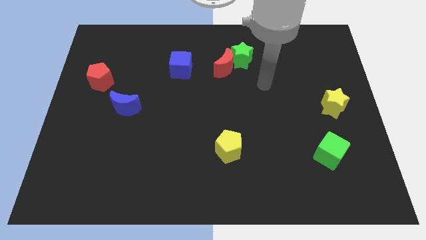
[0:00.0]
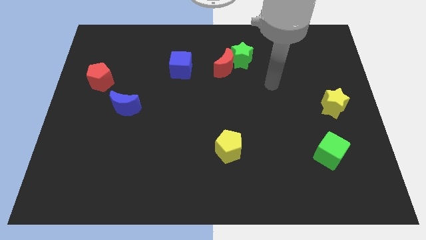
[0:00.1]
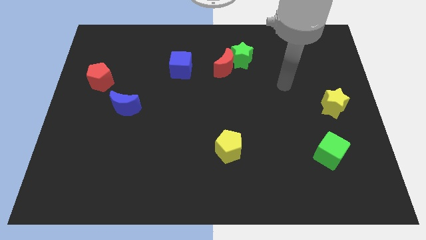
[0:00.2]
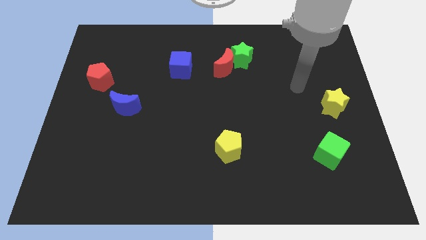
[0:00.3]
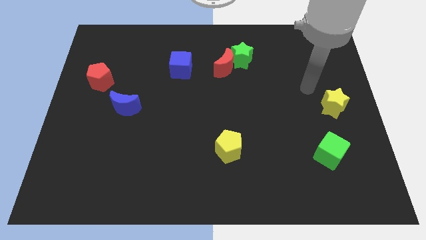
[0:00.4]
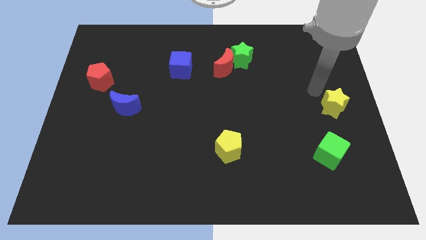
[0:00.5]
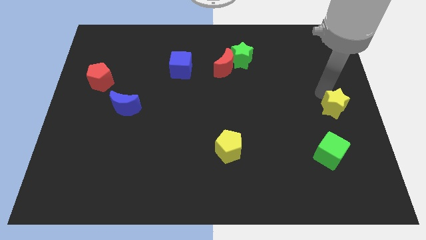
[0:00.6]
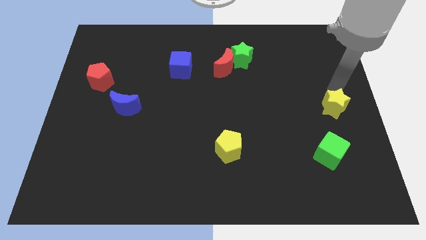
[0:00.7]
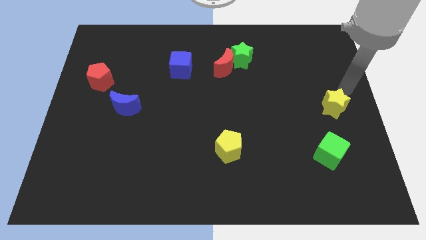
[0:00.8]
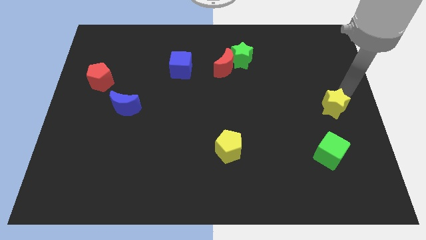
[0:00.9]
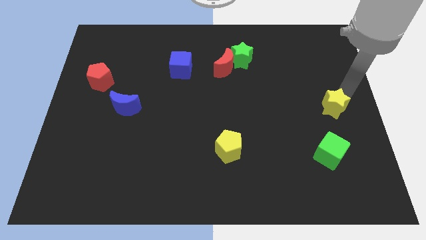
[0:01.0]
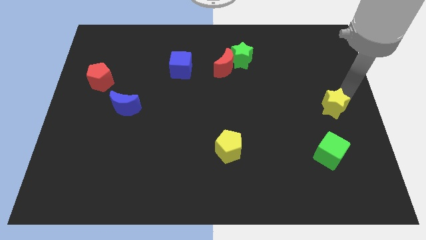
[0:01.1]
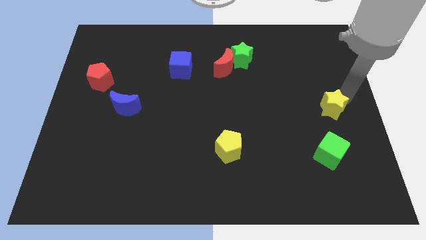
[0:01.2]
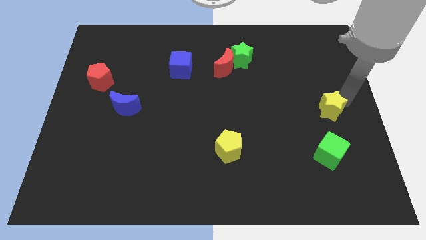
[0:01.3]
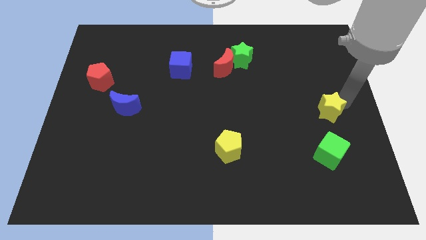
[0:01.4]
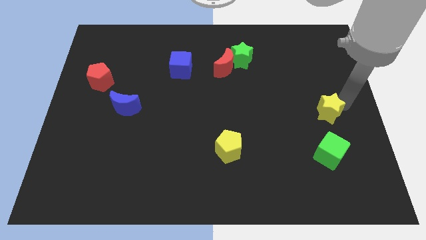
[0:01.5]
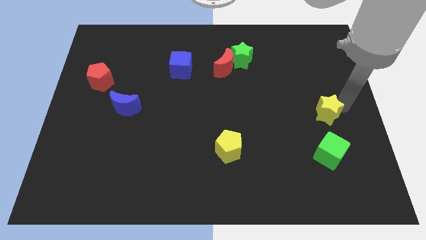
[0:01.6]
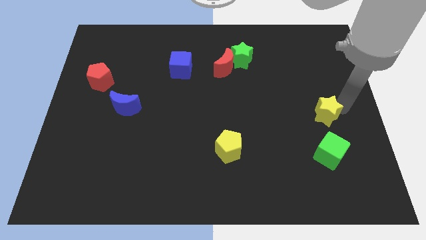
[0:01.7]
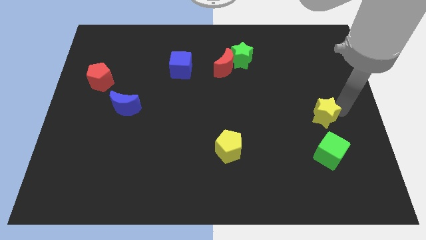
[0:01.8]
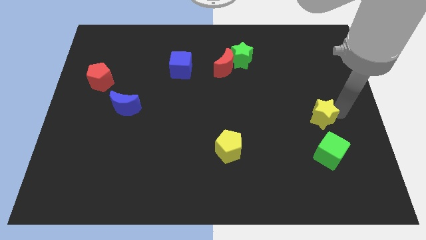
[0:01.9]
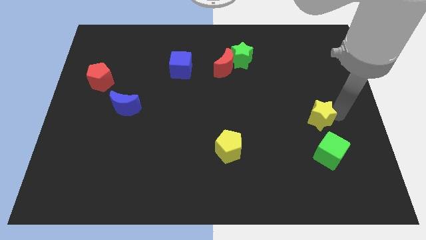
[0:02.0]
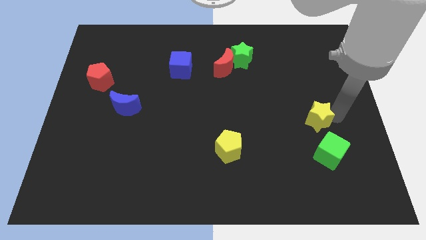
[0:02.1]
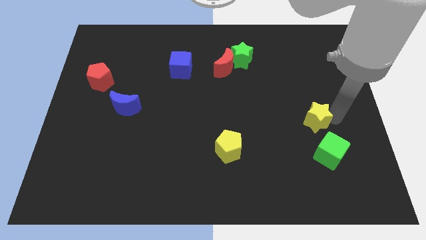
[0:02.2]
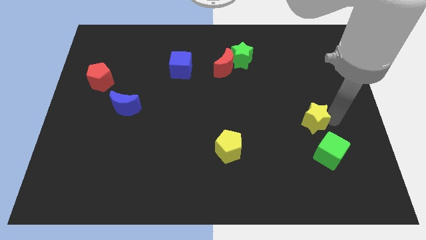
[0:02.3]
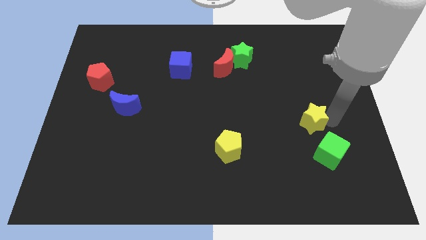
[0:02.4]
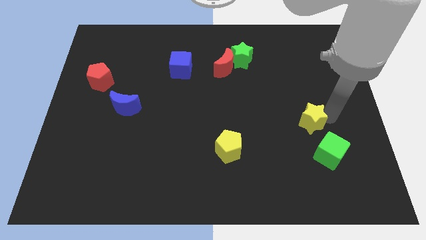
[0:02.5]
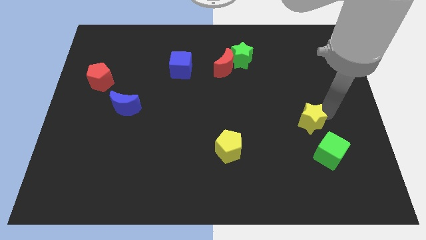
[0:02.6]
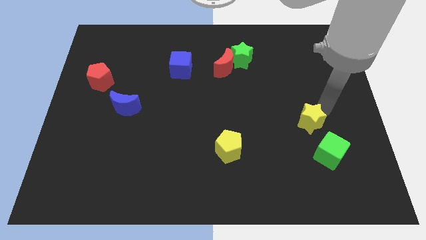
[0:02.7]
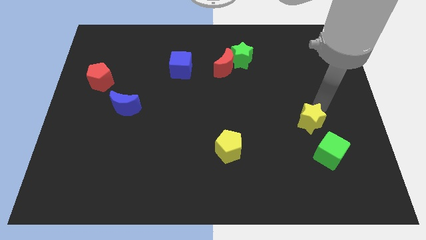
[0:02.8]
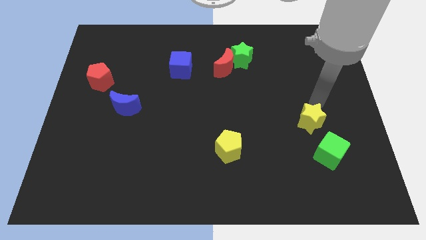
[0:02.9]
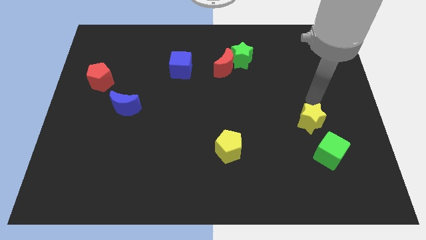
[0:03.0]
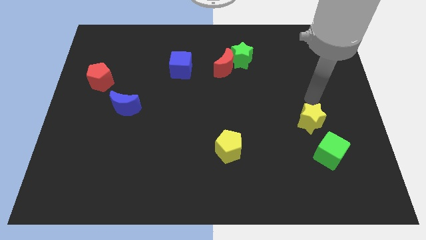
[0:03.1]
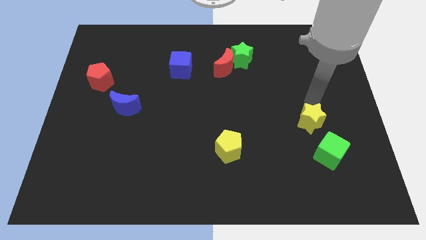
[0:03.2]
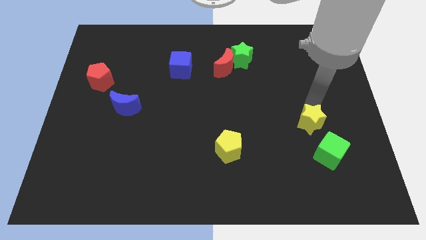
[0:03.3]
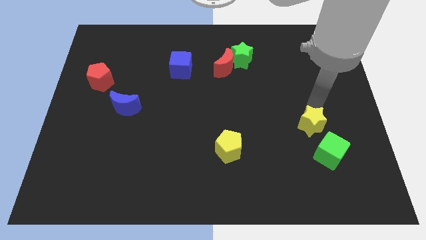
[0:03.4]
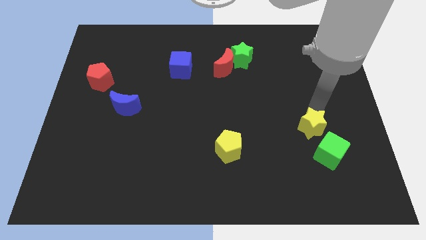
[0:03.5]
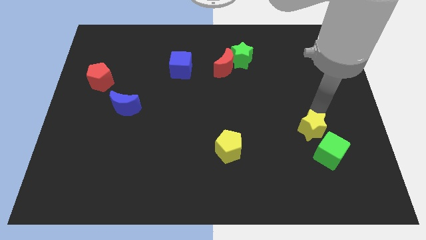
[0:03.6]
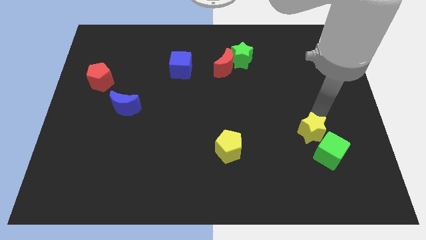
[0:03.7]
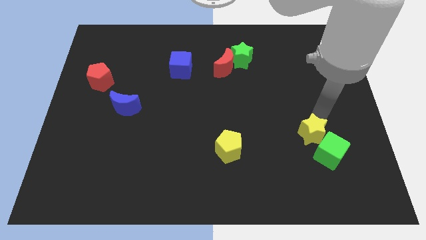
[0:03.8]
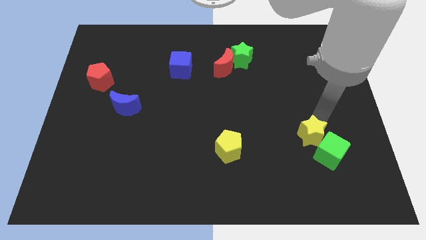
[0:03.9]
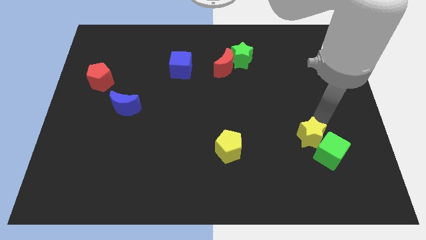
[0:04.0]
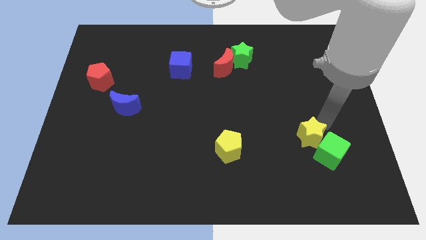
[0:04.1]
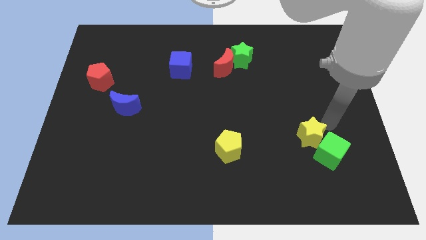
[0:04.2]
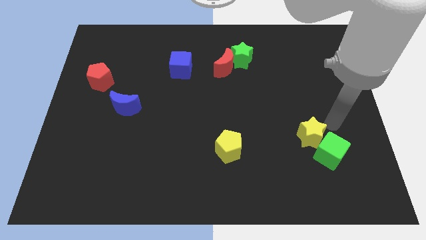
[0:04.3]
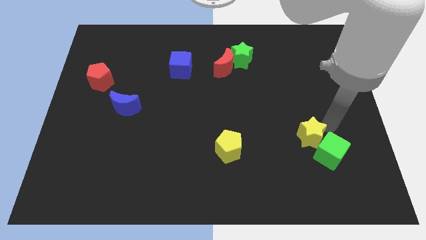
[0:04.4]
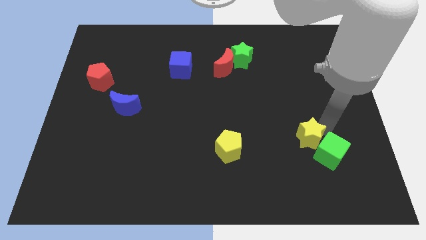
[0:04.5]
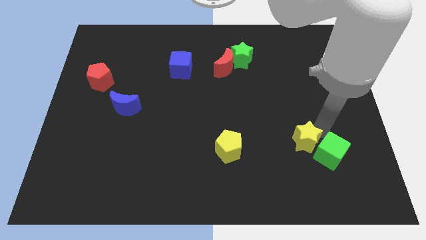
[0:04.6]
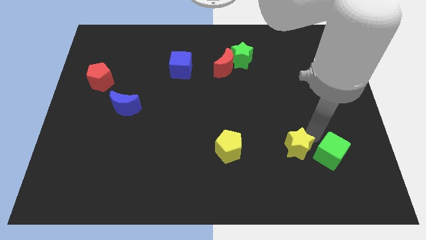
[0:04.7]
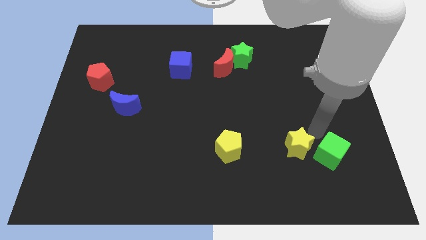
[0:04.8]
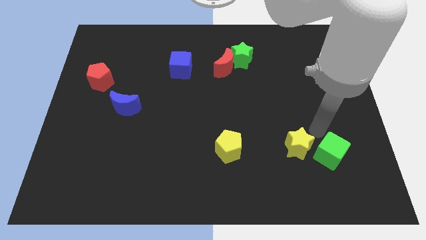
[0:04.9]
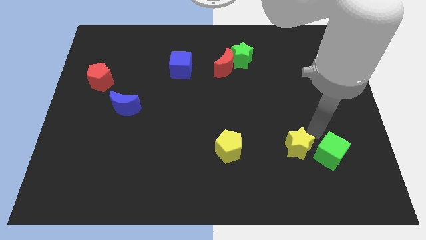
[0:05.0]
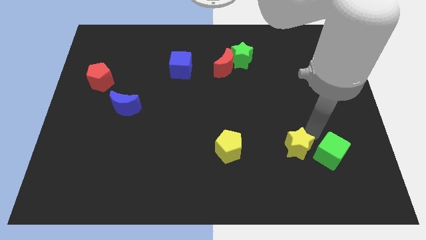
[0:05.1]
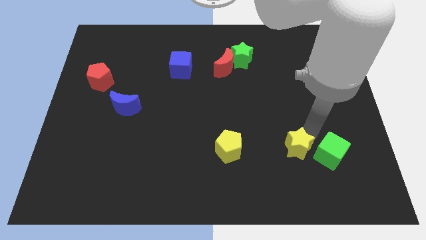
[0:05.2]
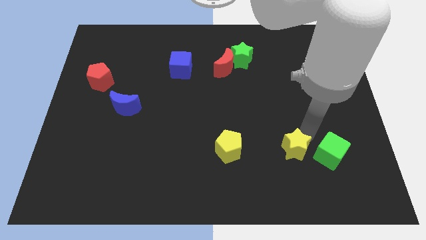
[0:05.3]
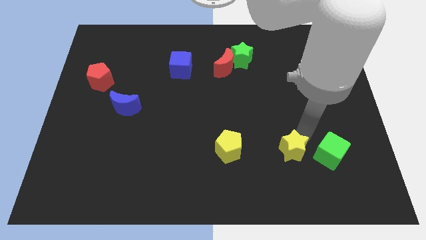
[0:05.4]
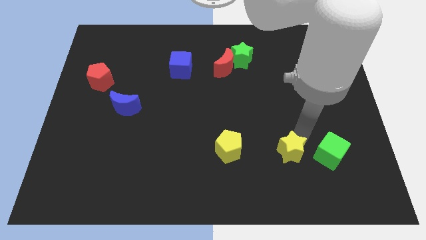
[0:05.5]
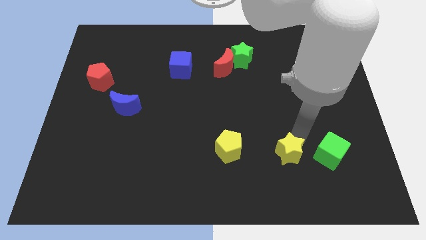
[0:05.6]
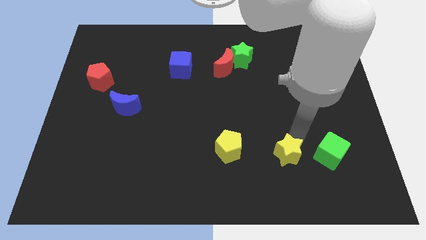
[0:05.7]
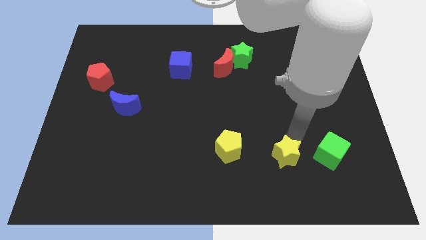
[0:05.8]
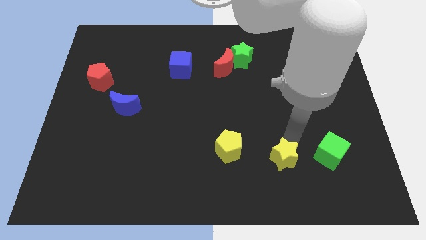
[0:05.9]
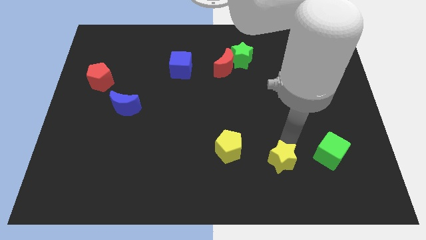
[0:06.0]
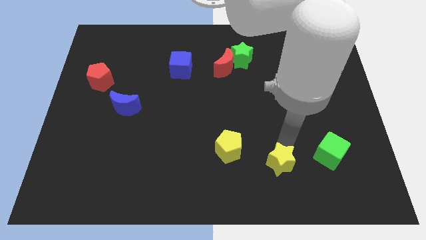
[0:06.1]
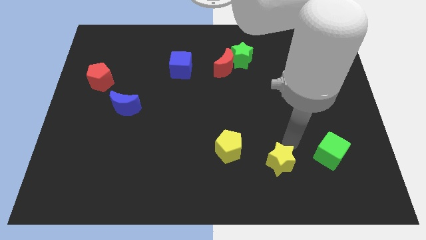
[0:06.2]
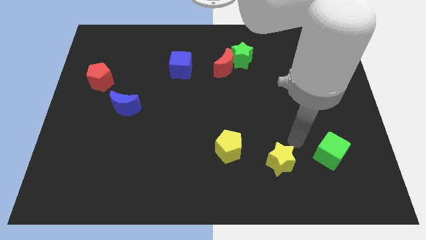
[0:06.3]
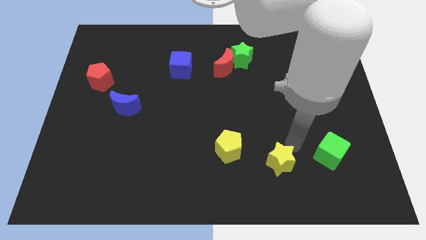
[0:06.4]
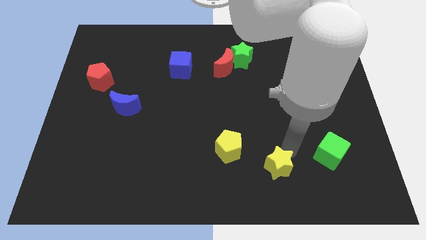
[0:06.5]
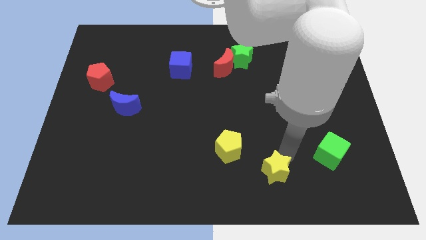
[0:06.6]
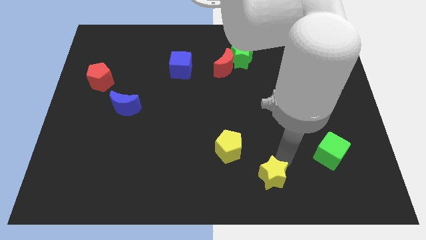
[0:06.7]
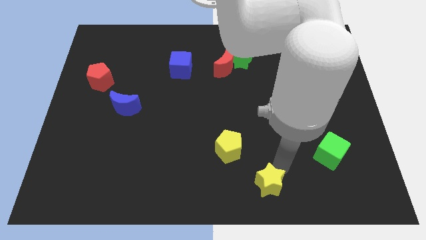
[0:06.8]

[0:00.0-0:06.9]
put the yellow star to the bottom side
